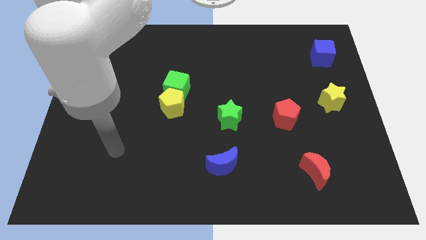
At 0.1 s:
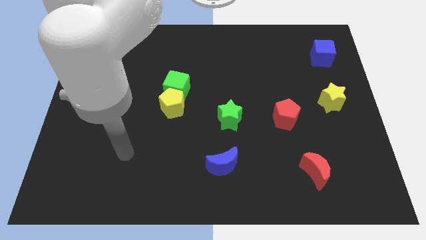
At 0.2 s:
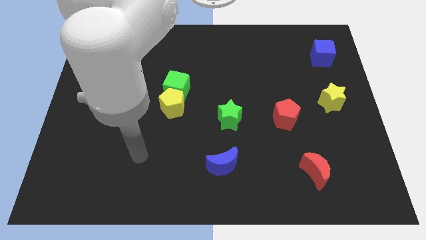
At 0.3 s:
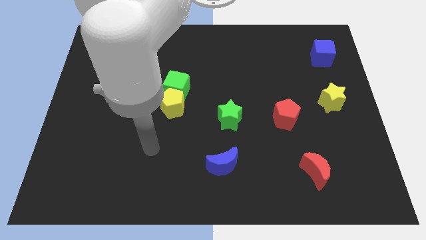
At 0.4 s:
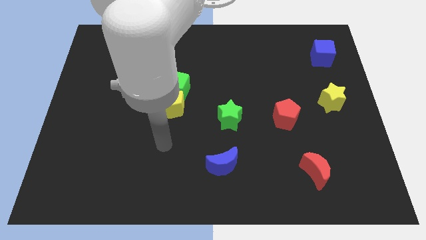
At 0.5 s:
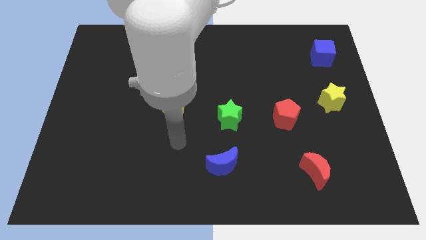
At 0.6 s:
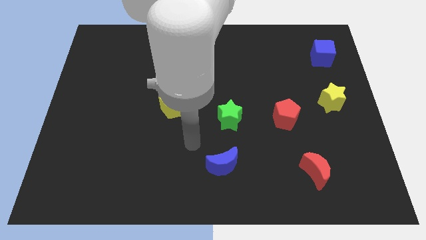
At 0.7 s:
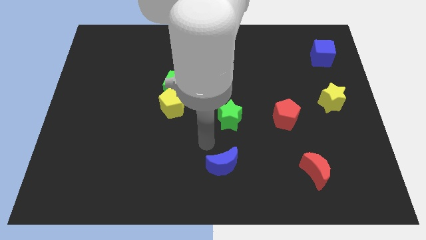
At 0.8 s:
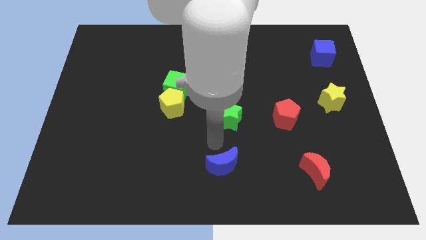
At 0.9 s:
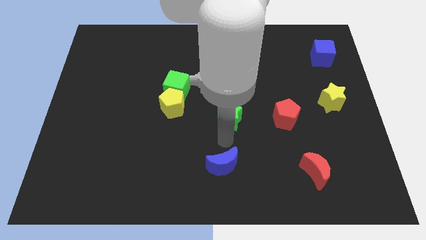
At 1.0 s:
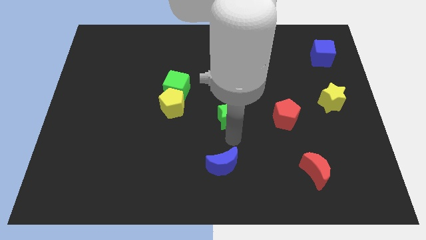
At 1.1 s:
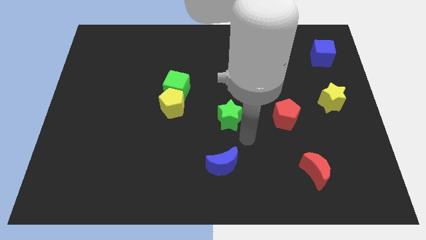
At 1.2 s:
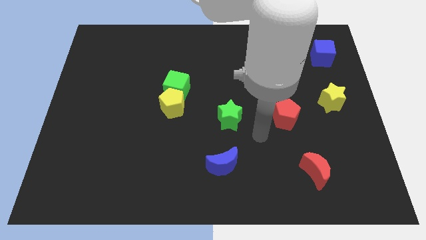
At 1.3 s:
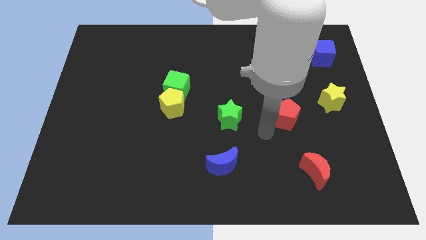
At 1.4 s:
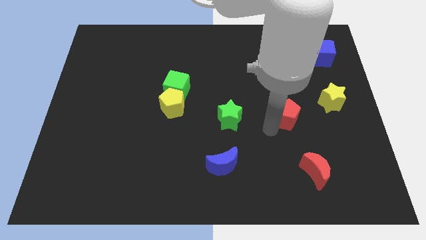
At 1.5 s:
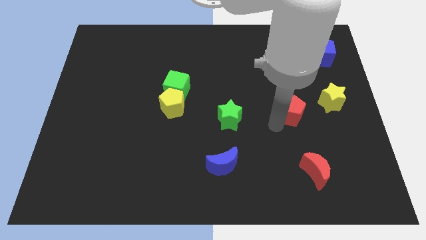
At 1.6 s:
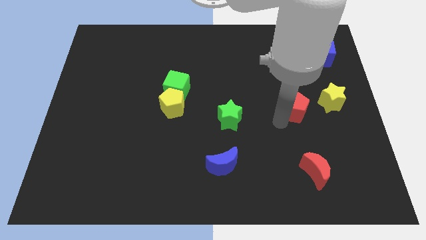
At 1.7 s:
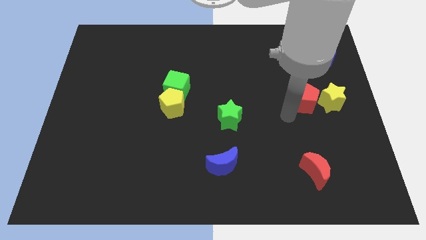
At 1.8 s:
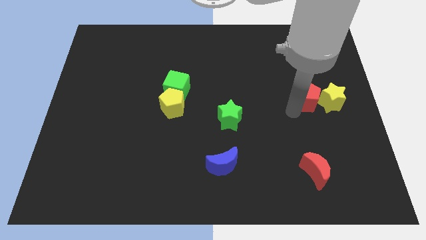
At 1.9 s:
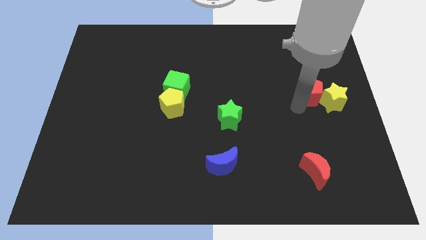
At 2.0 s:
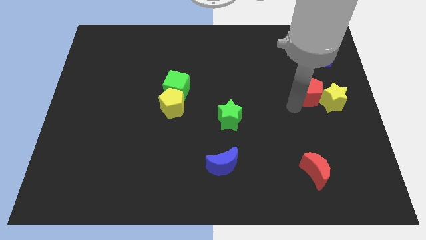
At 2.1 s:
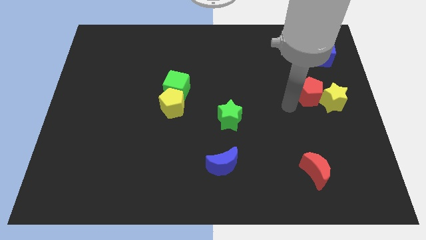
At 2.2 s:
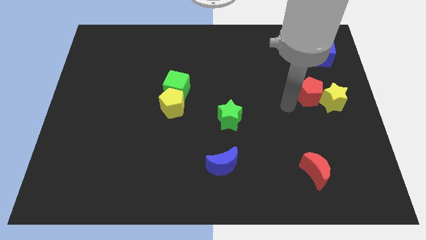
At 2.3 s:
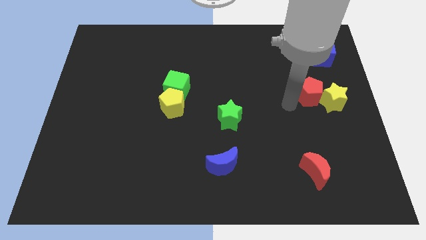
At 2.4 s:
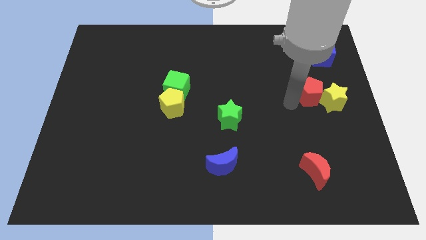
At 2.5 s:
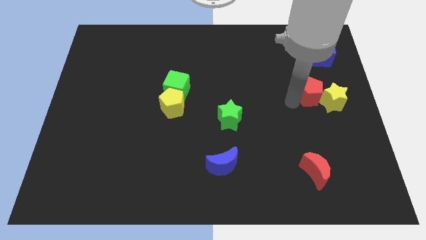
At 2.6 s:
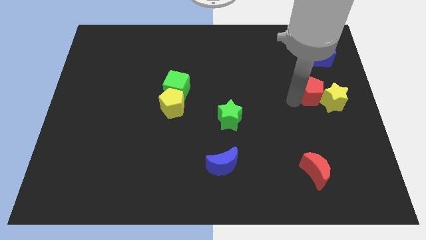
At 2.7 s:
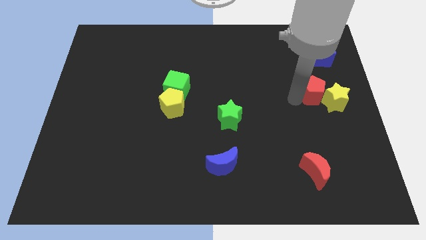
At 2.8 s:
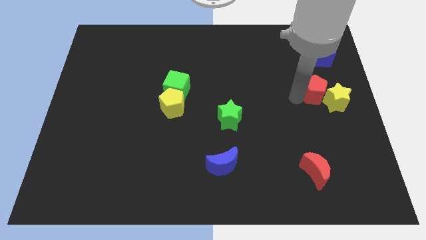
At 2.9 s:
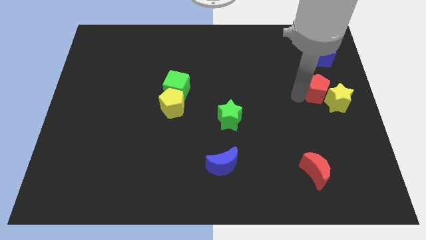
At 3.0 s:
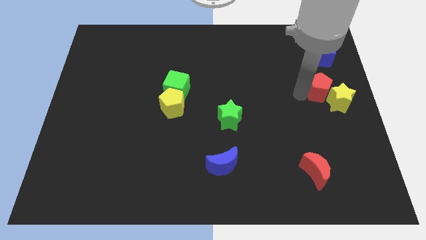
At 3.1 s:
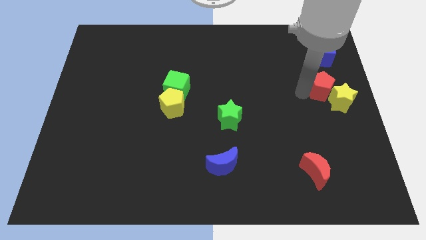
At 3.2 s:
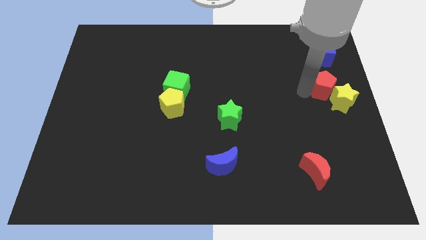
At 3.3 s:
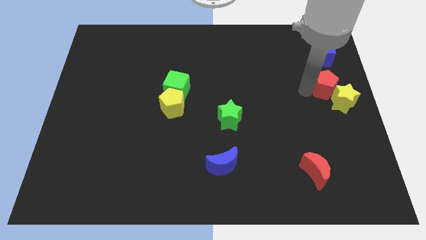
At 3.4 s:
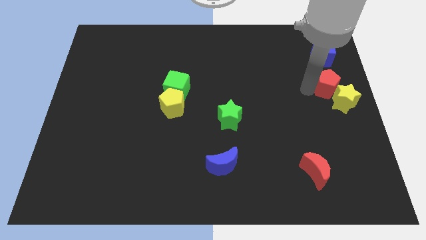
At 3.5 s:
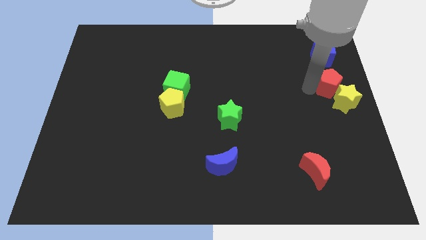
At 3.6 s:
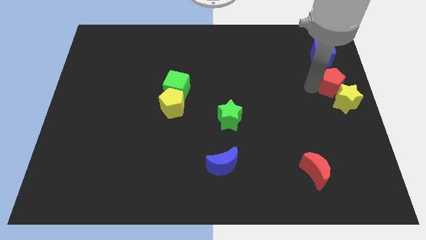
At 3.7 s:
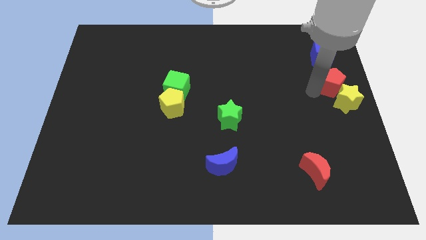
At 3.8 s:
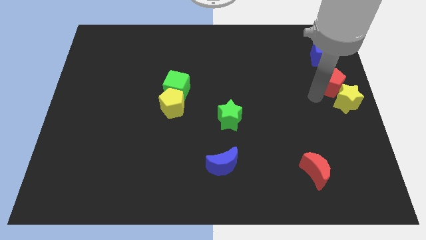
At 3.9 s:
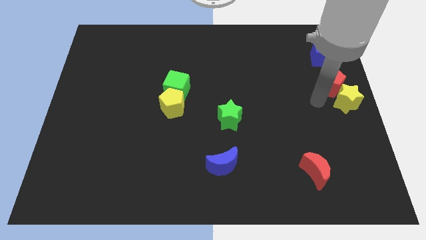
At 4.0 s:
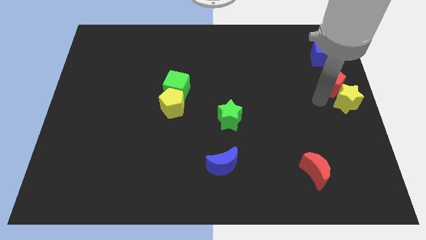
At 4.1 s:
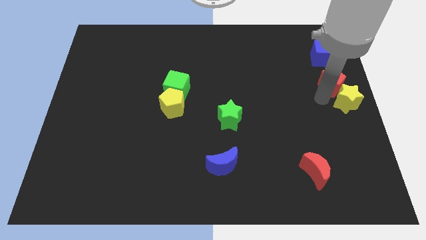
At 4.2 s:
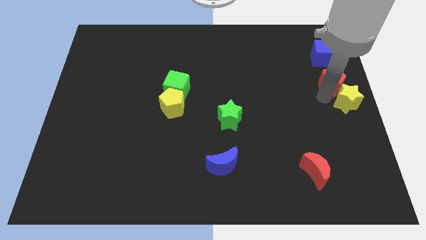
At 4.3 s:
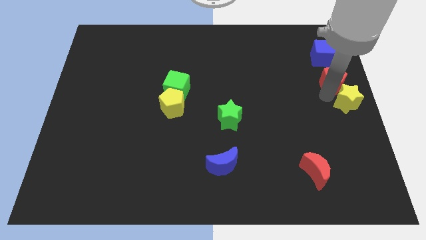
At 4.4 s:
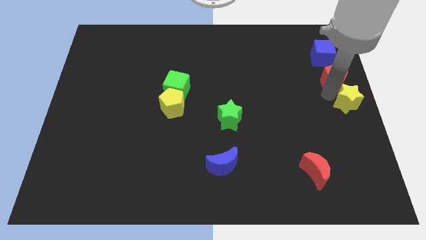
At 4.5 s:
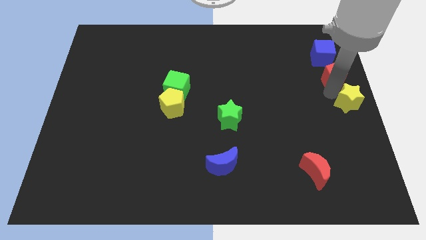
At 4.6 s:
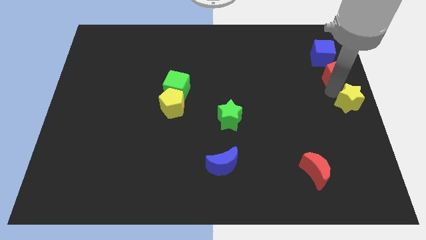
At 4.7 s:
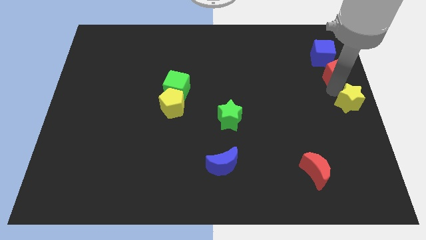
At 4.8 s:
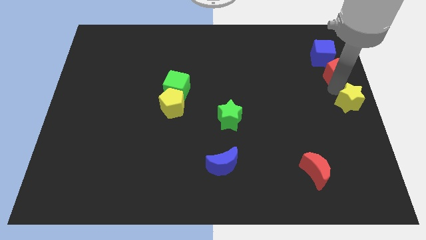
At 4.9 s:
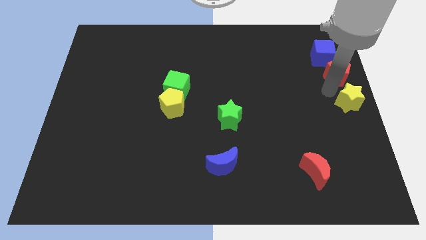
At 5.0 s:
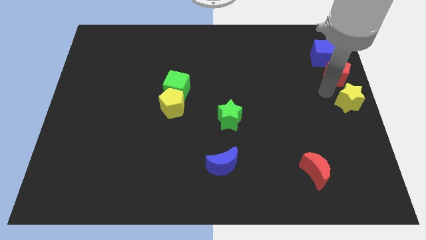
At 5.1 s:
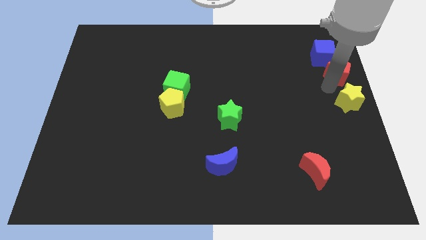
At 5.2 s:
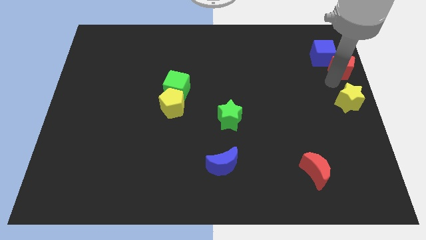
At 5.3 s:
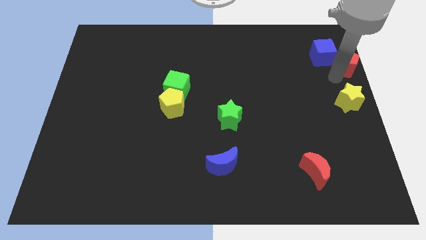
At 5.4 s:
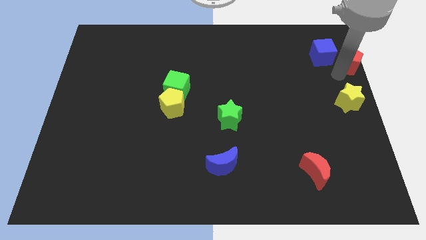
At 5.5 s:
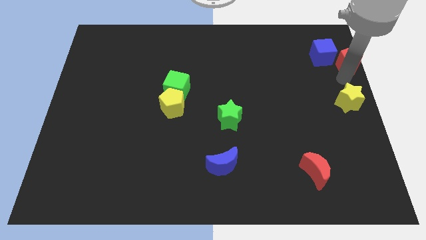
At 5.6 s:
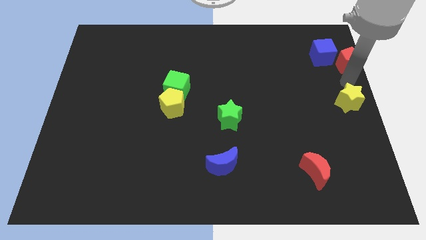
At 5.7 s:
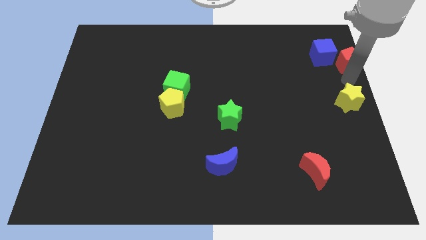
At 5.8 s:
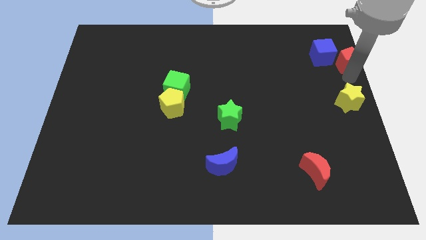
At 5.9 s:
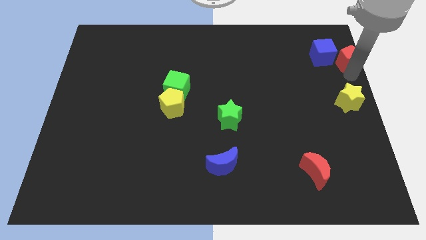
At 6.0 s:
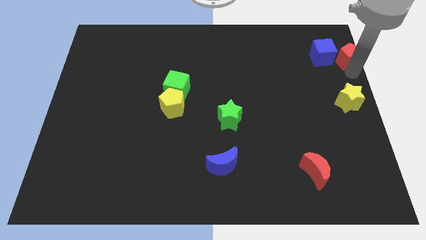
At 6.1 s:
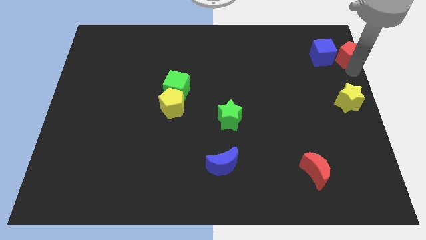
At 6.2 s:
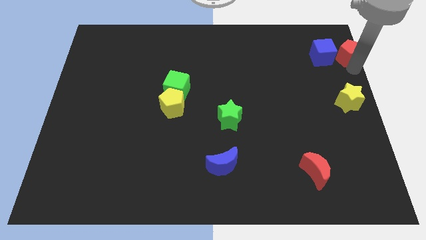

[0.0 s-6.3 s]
push the red pentagon to the top right corner
